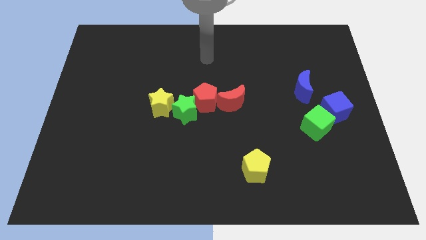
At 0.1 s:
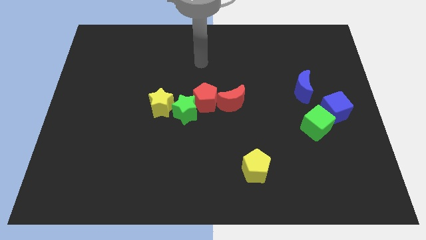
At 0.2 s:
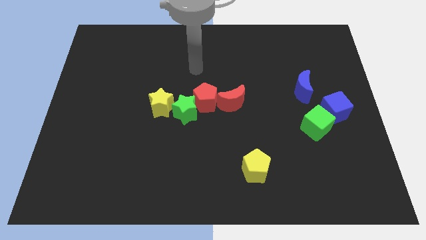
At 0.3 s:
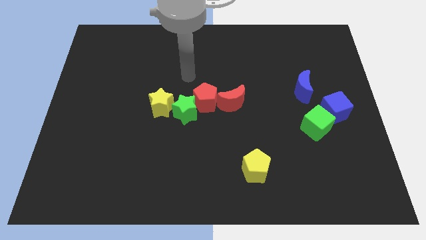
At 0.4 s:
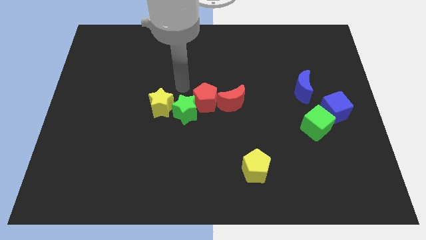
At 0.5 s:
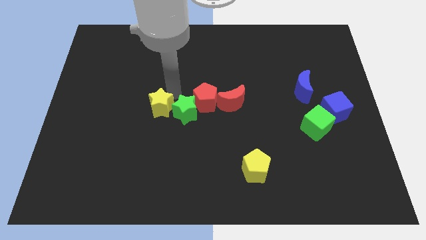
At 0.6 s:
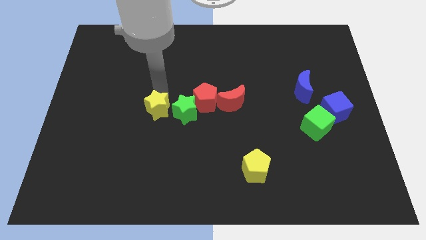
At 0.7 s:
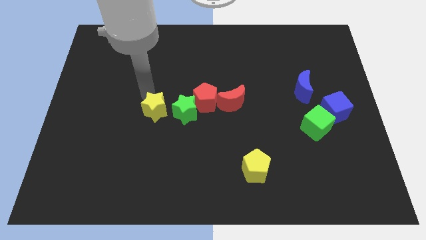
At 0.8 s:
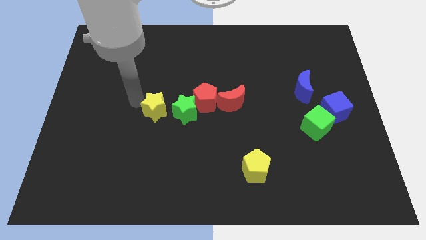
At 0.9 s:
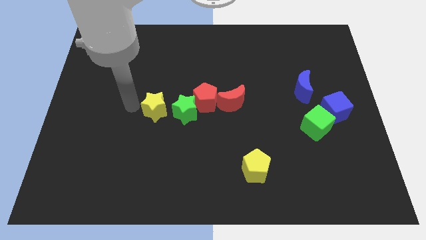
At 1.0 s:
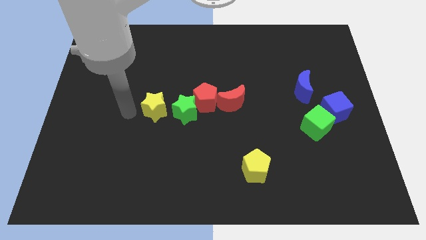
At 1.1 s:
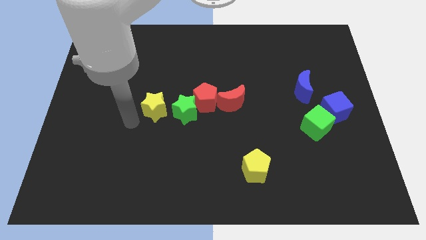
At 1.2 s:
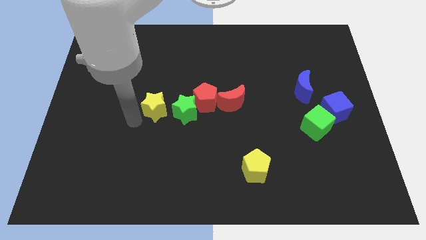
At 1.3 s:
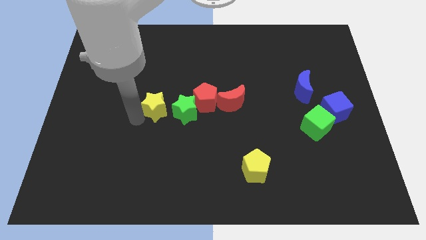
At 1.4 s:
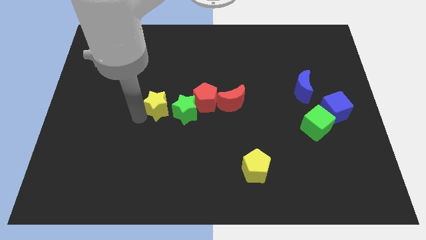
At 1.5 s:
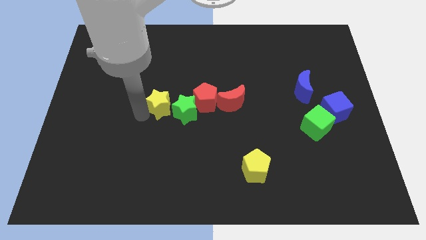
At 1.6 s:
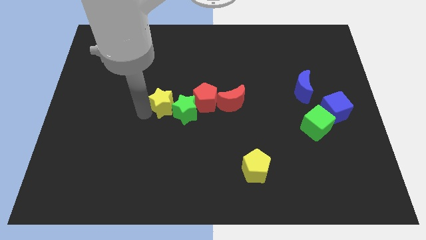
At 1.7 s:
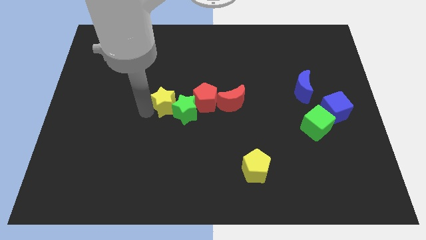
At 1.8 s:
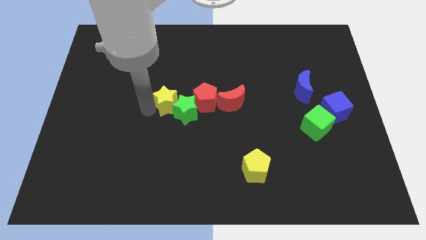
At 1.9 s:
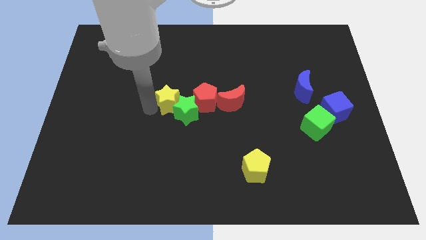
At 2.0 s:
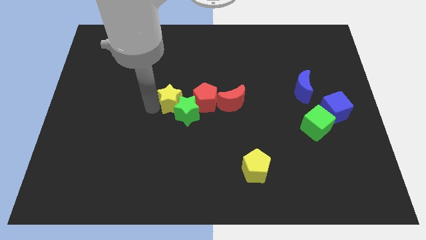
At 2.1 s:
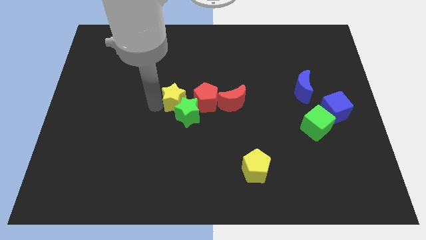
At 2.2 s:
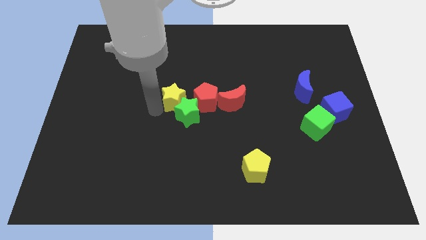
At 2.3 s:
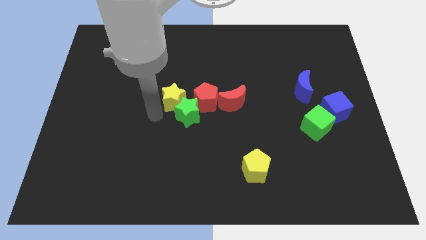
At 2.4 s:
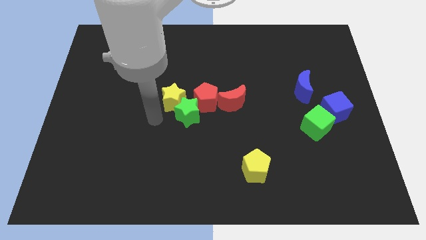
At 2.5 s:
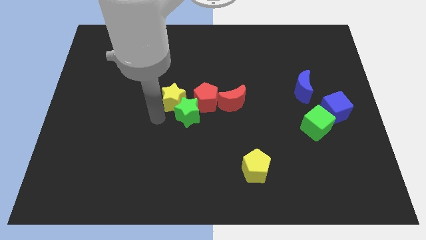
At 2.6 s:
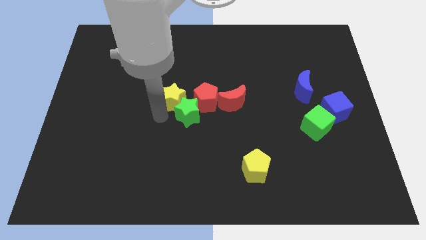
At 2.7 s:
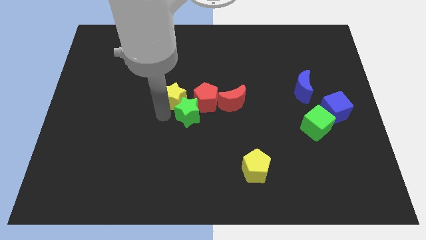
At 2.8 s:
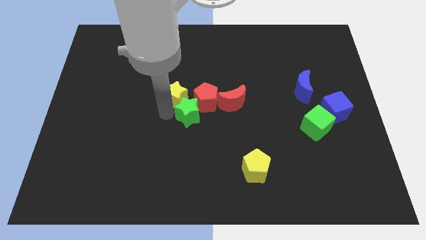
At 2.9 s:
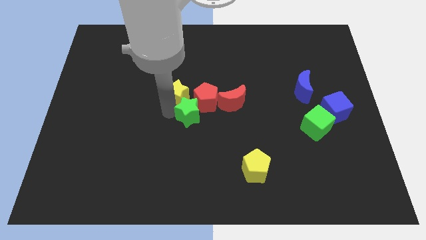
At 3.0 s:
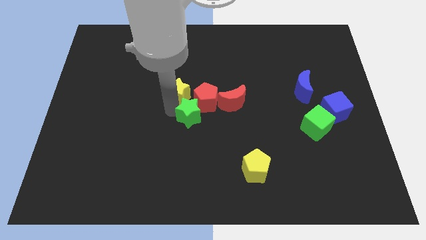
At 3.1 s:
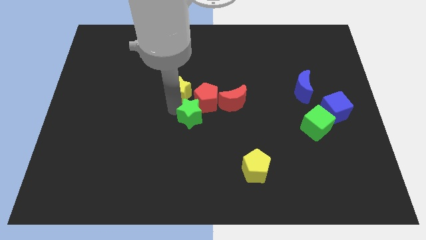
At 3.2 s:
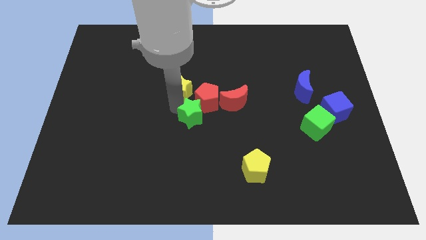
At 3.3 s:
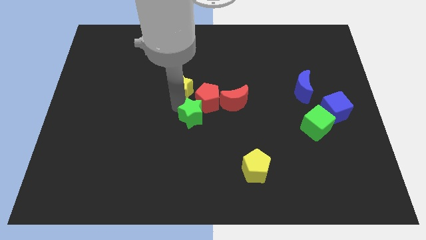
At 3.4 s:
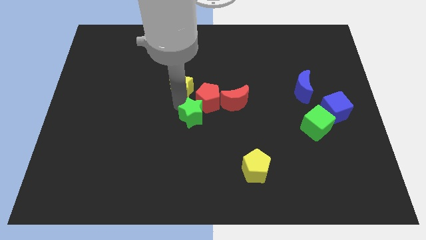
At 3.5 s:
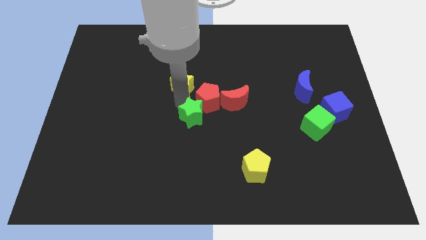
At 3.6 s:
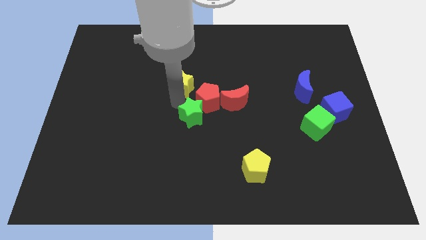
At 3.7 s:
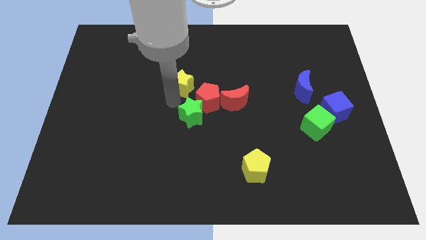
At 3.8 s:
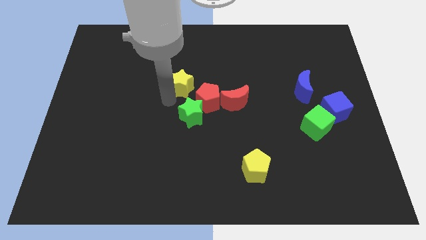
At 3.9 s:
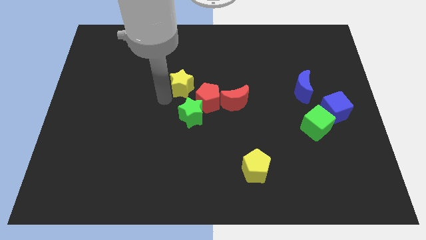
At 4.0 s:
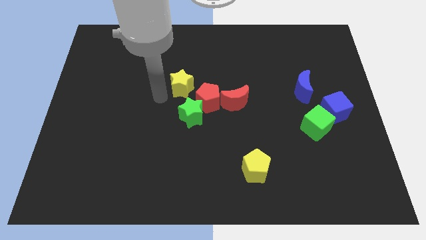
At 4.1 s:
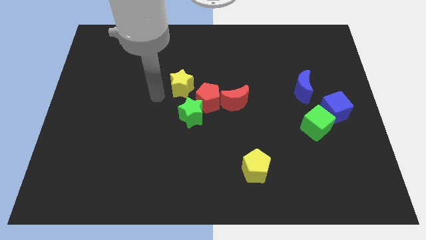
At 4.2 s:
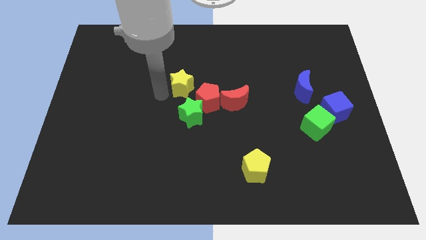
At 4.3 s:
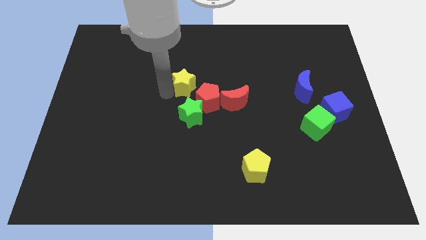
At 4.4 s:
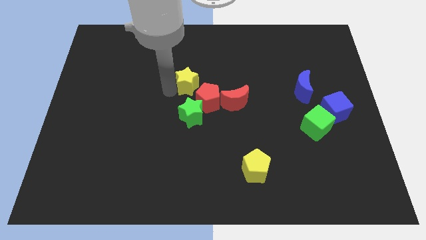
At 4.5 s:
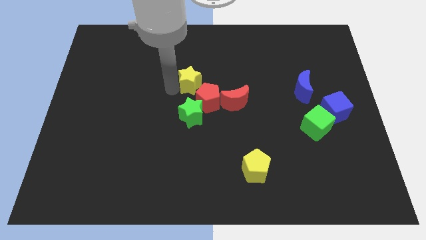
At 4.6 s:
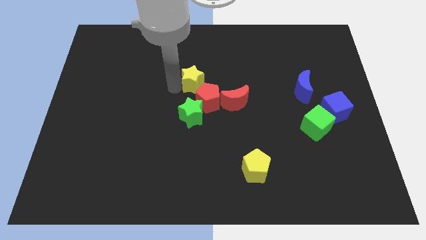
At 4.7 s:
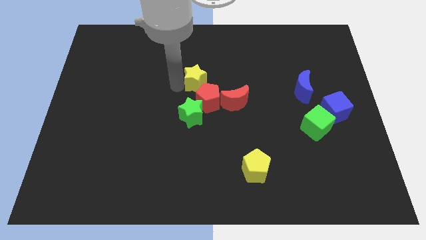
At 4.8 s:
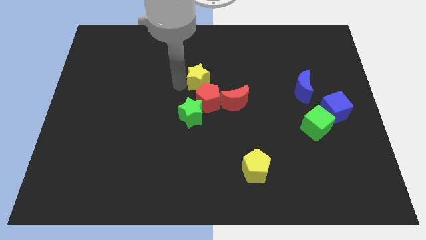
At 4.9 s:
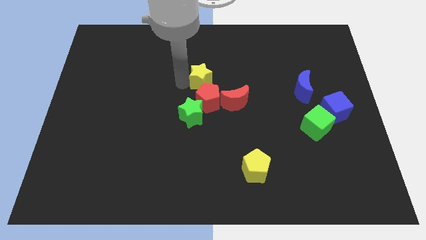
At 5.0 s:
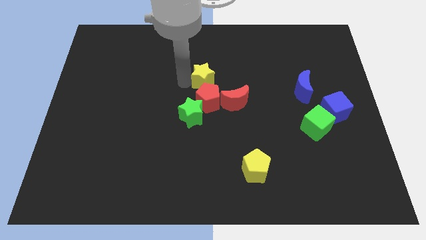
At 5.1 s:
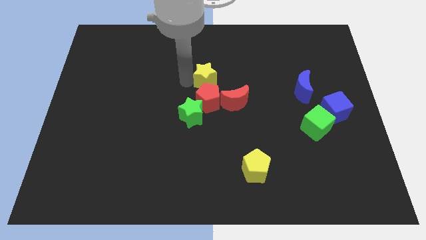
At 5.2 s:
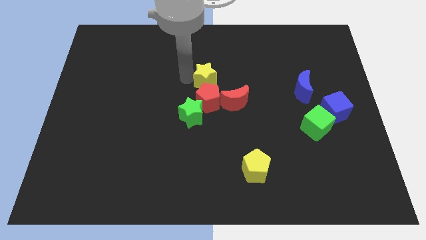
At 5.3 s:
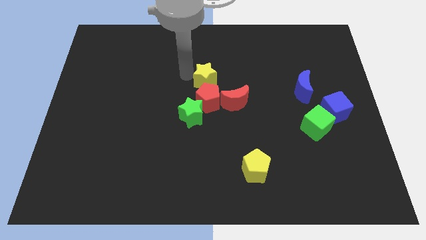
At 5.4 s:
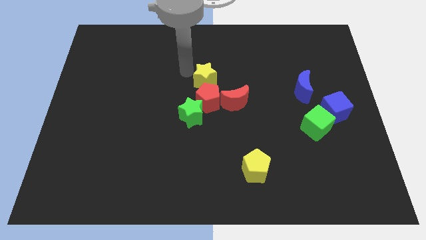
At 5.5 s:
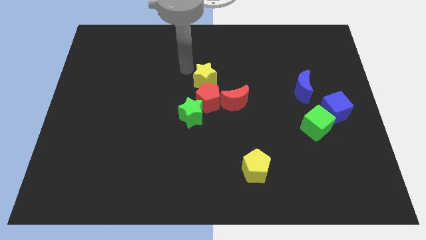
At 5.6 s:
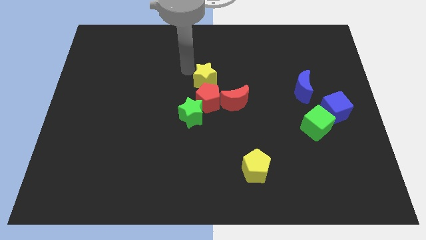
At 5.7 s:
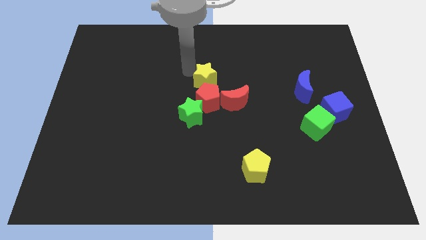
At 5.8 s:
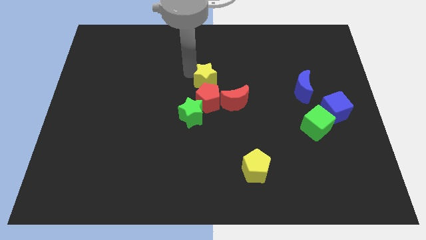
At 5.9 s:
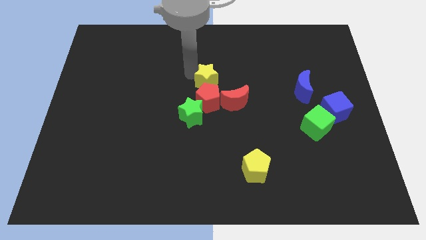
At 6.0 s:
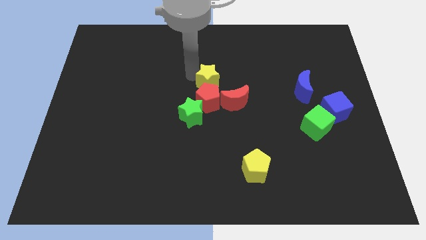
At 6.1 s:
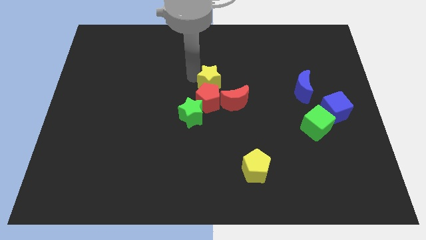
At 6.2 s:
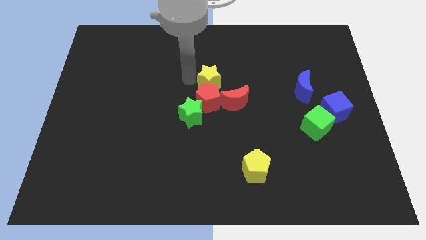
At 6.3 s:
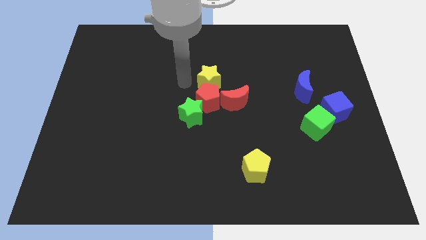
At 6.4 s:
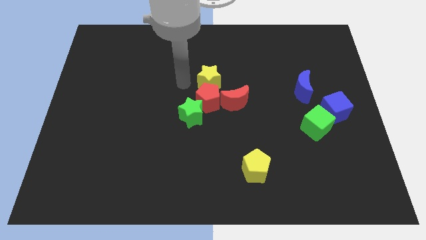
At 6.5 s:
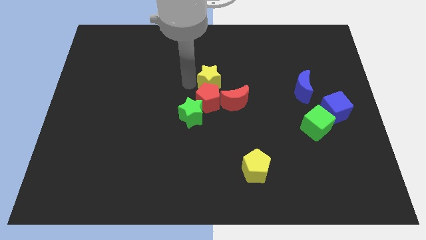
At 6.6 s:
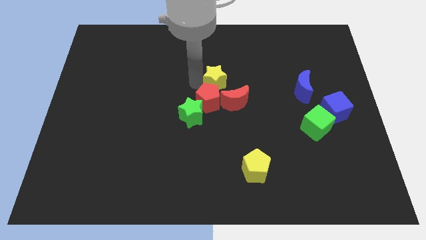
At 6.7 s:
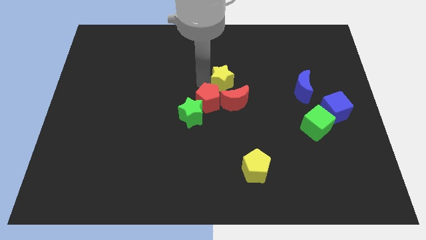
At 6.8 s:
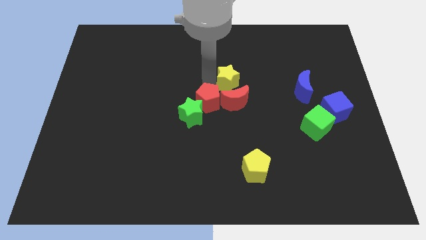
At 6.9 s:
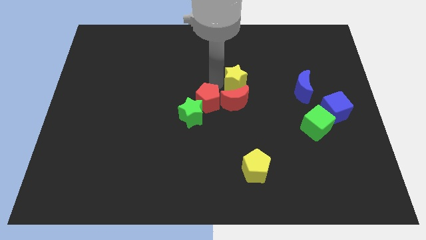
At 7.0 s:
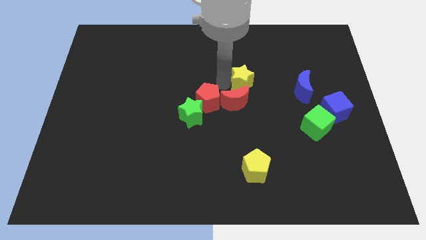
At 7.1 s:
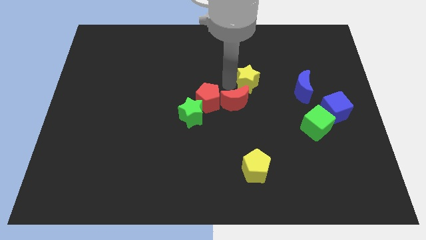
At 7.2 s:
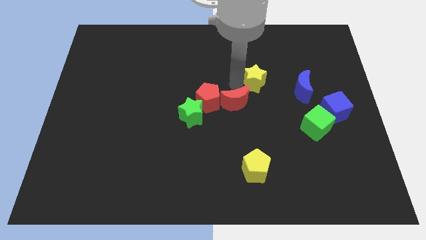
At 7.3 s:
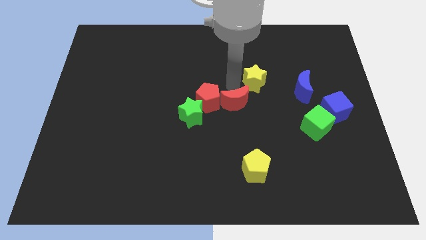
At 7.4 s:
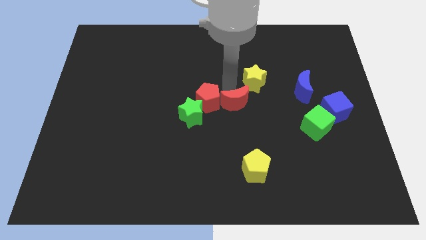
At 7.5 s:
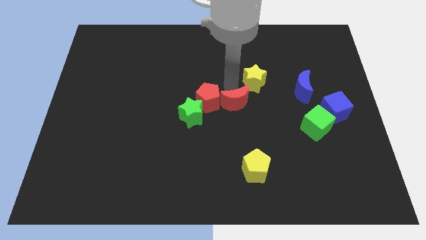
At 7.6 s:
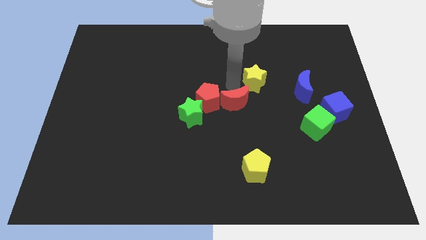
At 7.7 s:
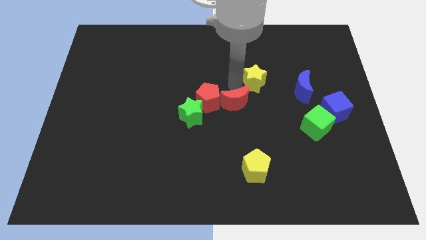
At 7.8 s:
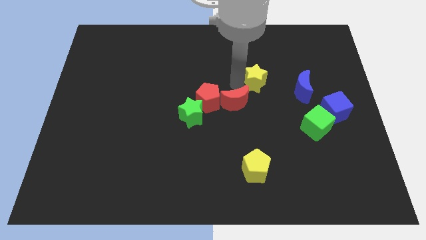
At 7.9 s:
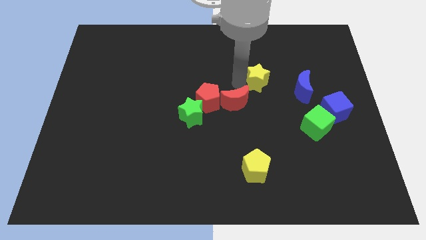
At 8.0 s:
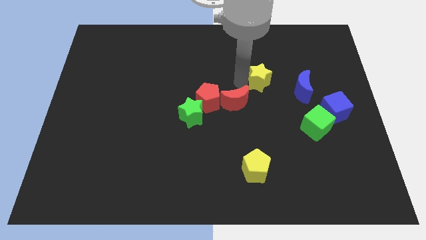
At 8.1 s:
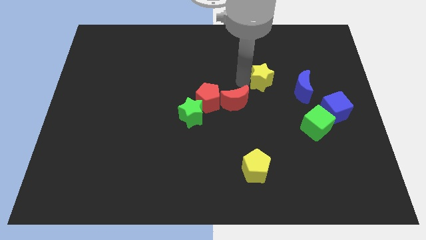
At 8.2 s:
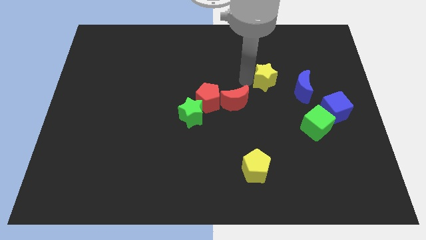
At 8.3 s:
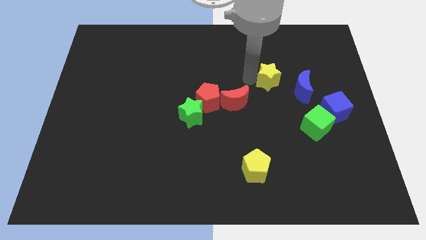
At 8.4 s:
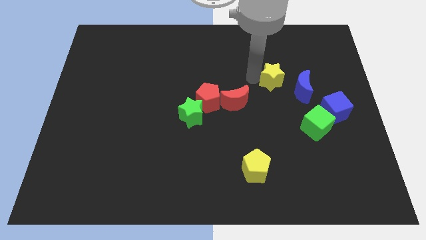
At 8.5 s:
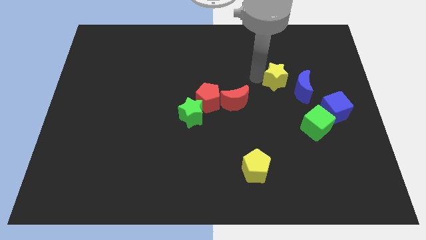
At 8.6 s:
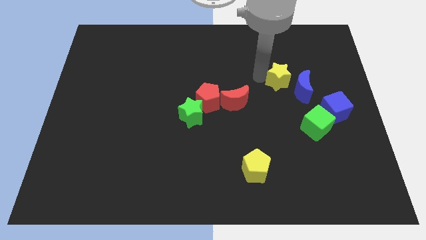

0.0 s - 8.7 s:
put the yellow star close to the blue moon
